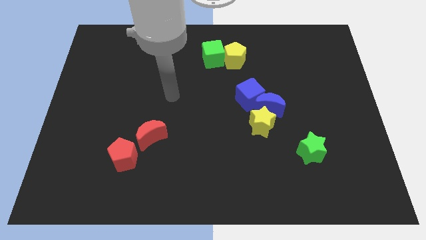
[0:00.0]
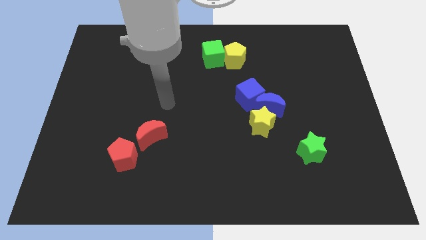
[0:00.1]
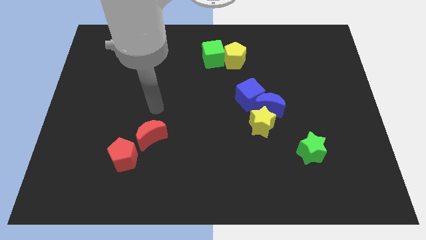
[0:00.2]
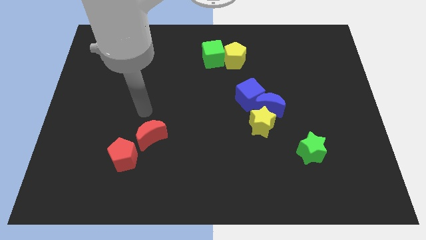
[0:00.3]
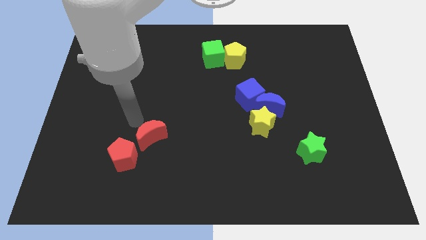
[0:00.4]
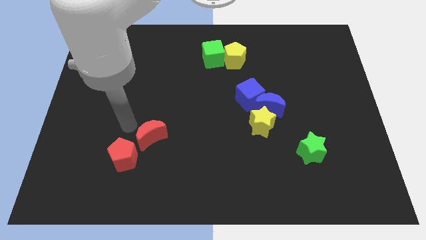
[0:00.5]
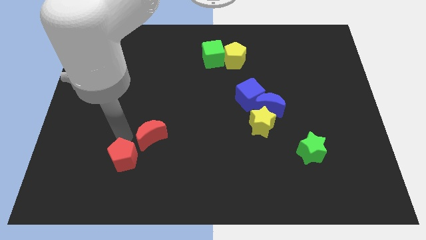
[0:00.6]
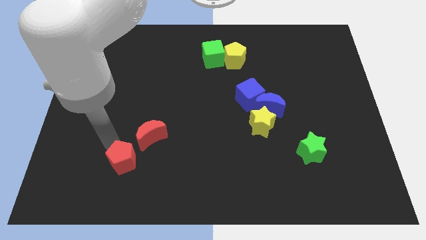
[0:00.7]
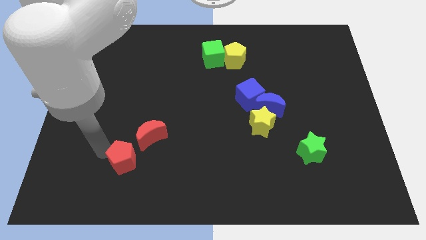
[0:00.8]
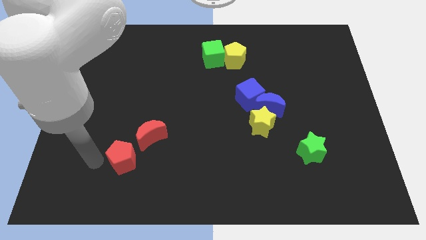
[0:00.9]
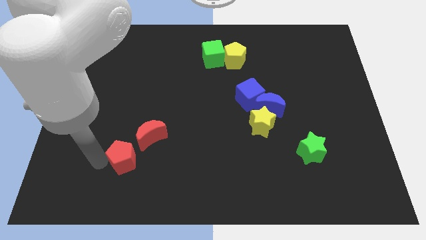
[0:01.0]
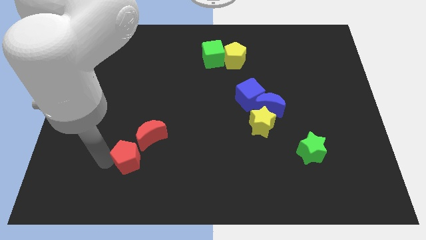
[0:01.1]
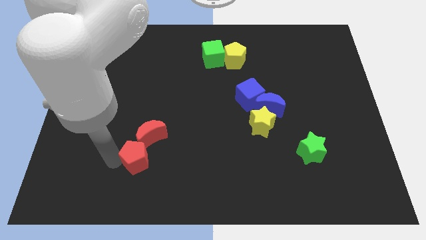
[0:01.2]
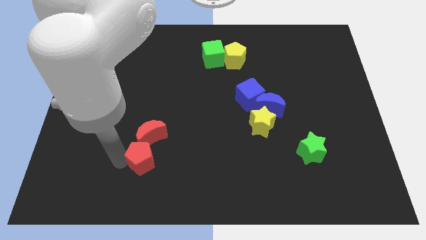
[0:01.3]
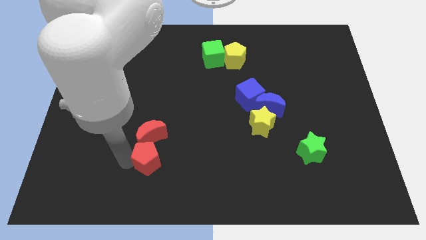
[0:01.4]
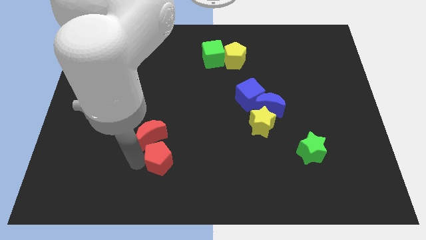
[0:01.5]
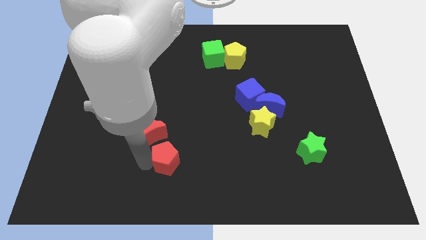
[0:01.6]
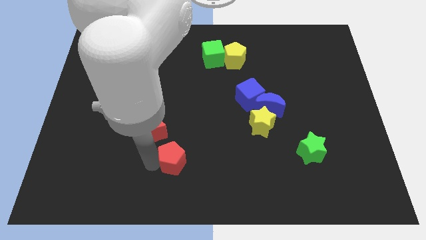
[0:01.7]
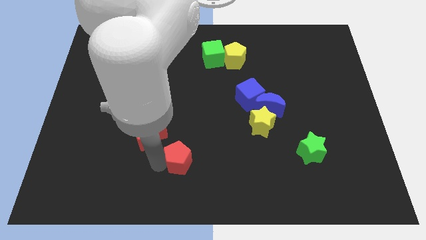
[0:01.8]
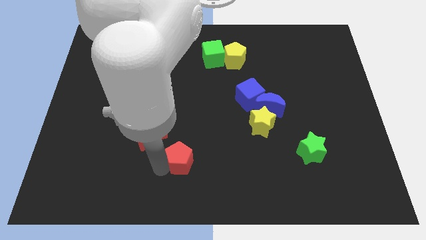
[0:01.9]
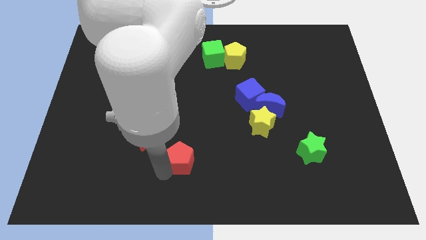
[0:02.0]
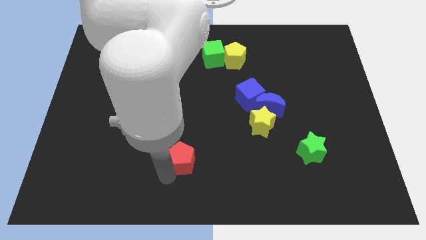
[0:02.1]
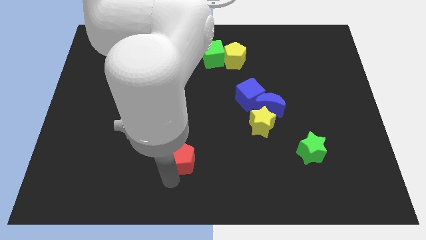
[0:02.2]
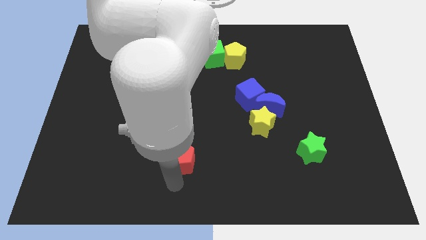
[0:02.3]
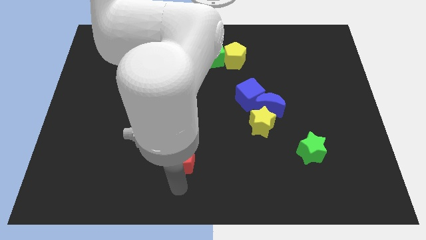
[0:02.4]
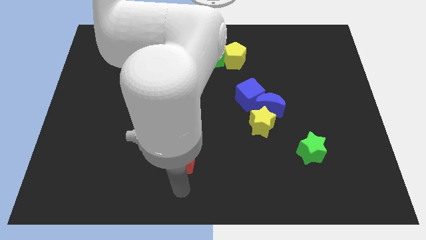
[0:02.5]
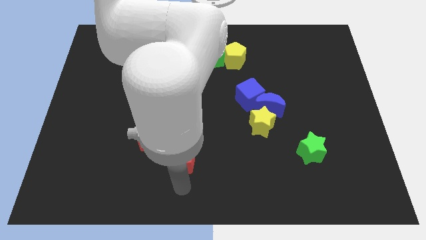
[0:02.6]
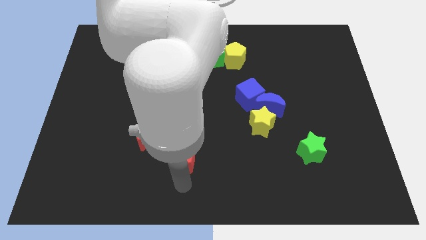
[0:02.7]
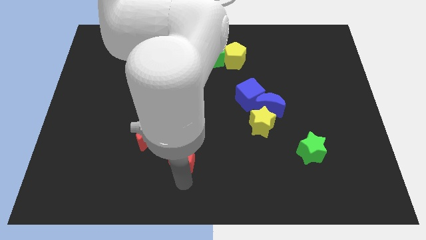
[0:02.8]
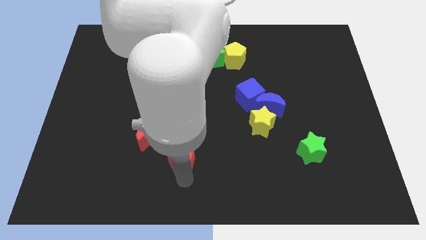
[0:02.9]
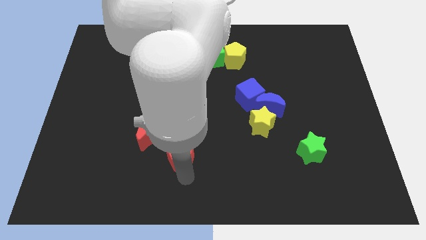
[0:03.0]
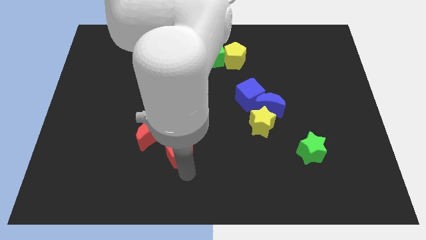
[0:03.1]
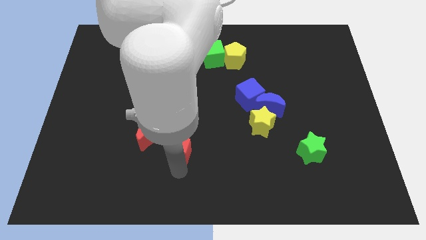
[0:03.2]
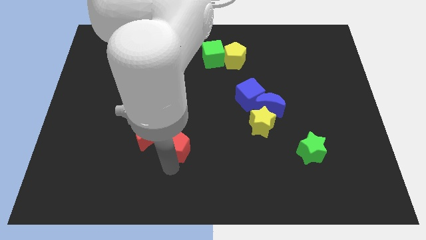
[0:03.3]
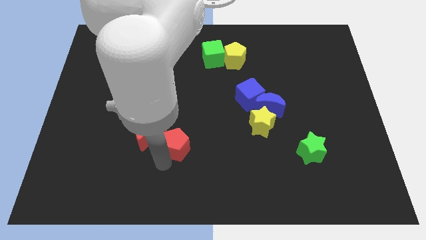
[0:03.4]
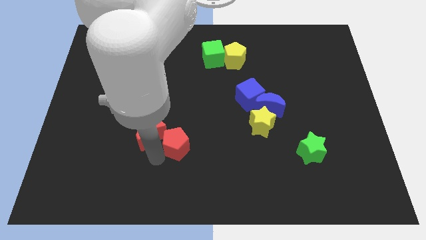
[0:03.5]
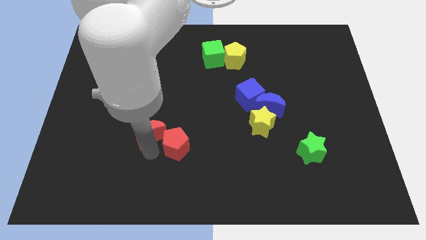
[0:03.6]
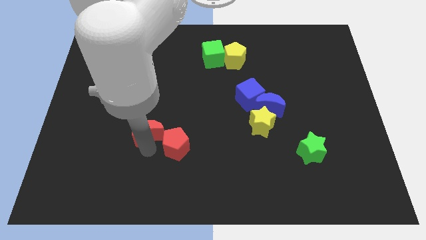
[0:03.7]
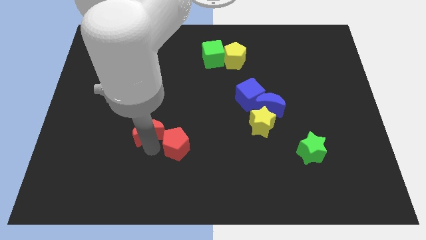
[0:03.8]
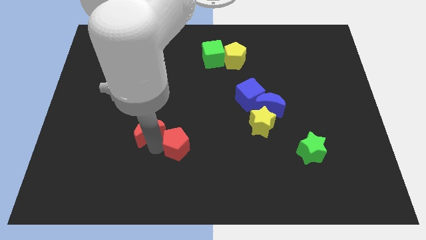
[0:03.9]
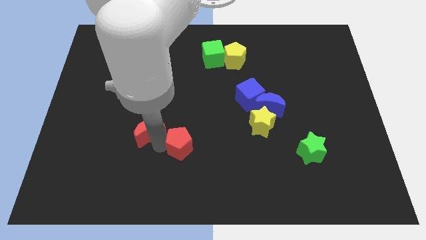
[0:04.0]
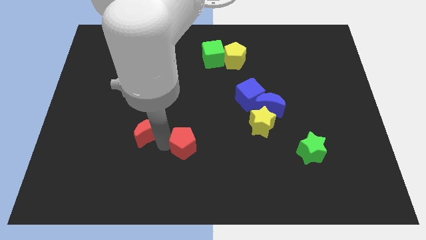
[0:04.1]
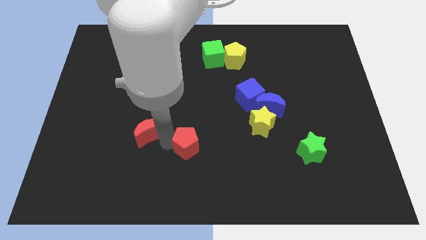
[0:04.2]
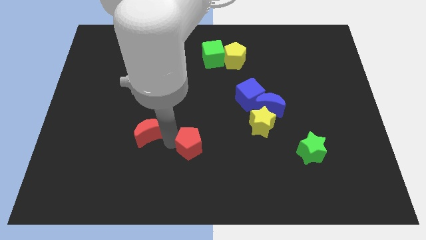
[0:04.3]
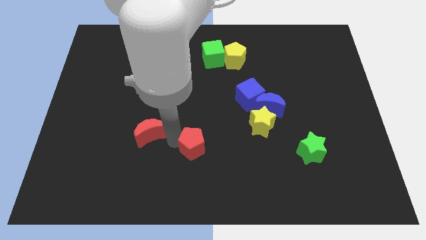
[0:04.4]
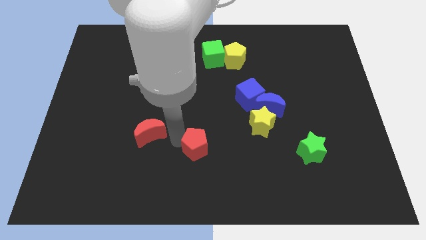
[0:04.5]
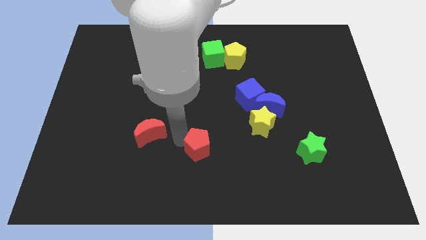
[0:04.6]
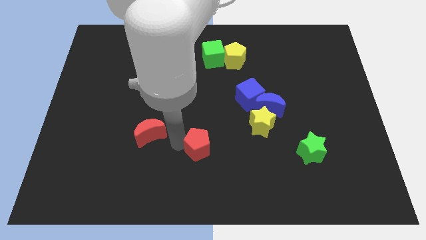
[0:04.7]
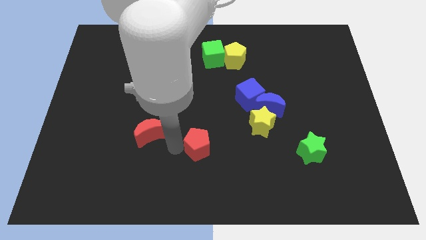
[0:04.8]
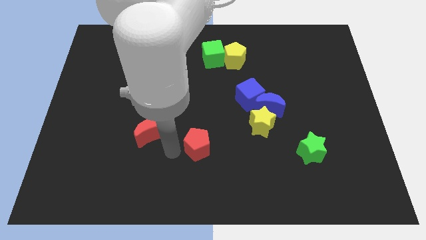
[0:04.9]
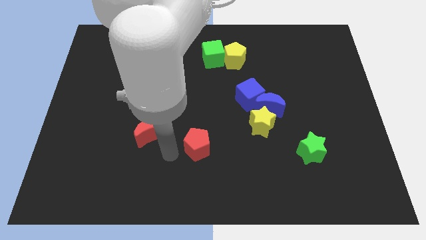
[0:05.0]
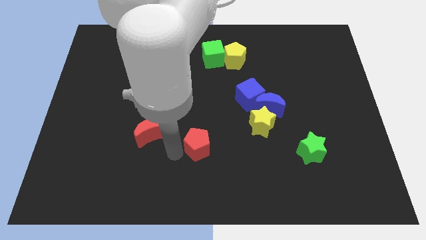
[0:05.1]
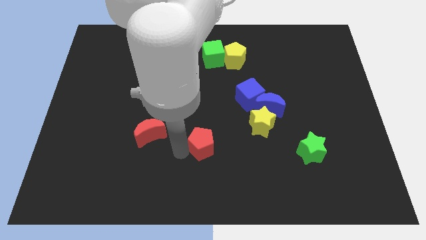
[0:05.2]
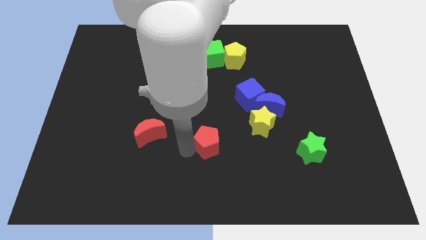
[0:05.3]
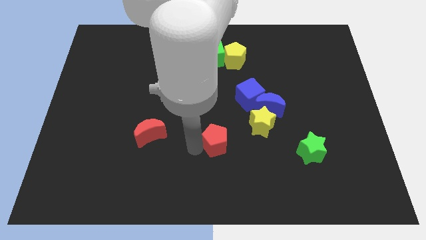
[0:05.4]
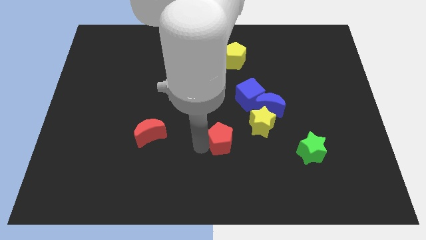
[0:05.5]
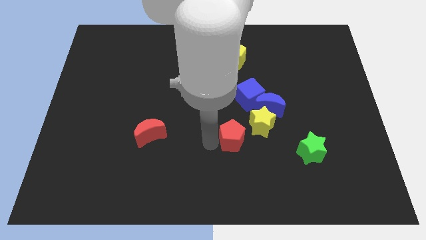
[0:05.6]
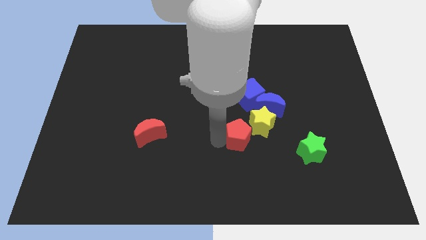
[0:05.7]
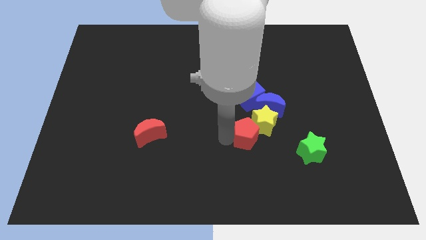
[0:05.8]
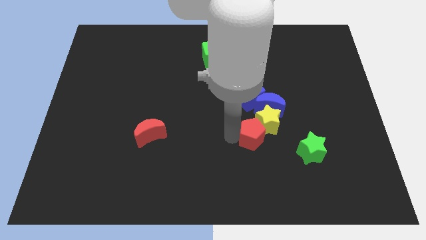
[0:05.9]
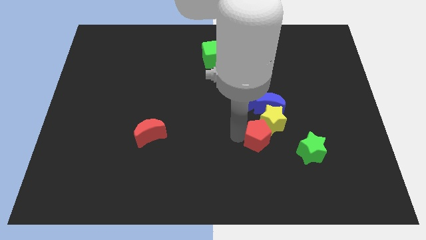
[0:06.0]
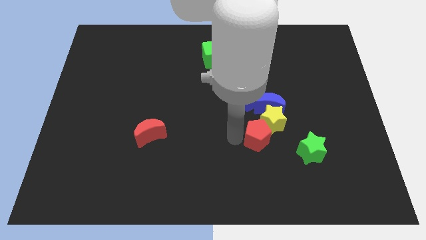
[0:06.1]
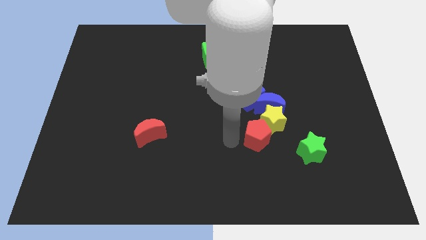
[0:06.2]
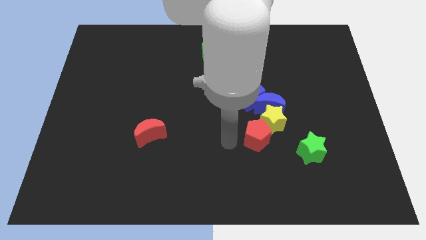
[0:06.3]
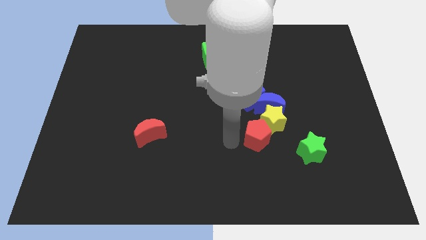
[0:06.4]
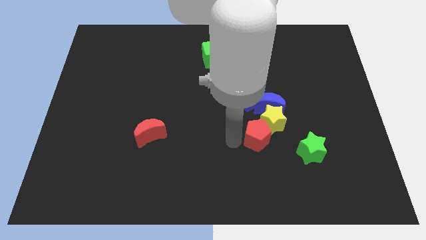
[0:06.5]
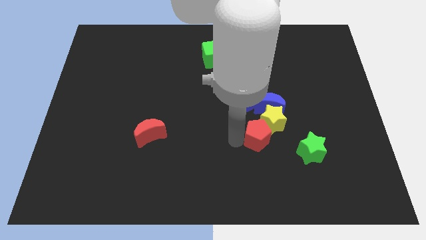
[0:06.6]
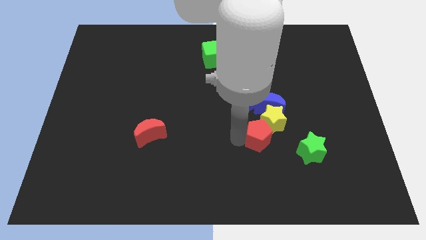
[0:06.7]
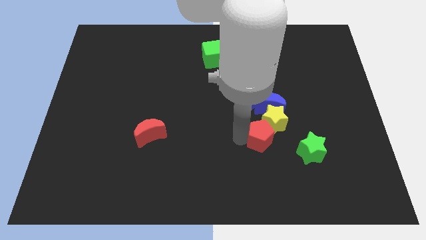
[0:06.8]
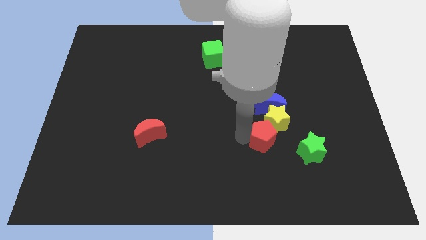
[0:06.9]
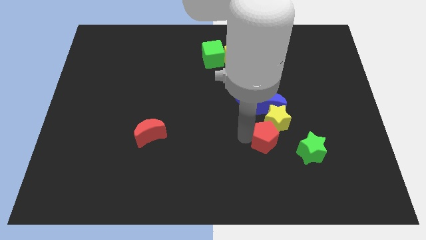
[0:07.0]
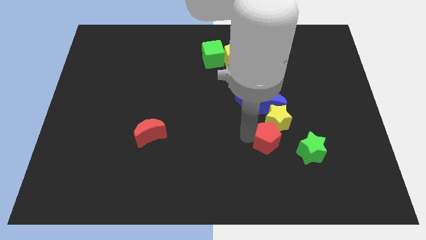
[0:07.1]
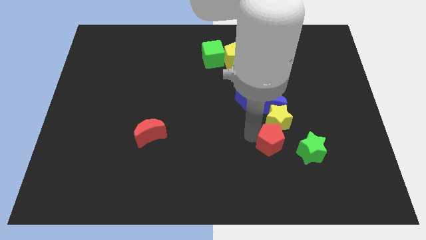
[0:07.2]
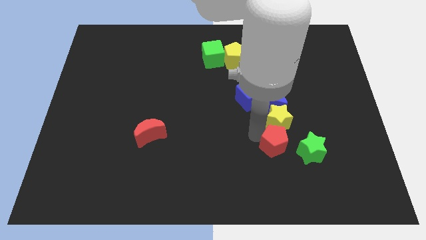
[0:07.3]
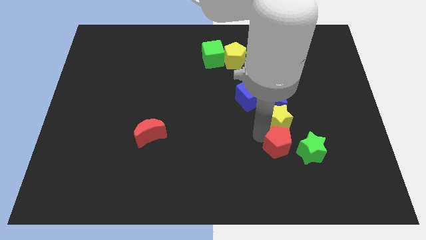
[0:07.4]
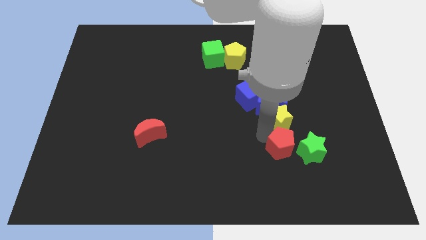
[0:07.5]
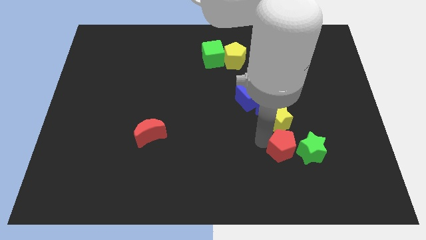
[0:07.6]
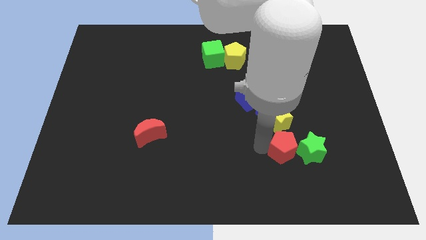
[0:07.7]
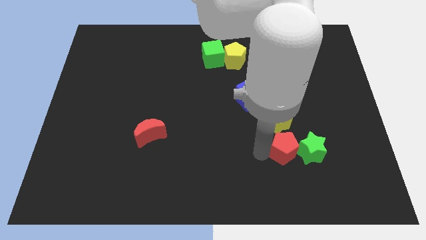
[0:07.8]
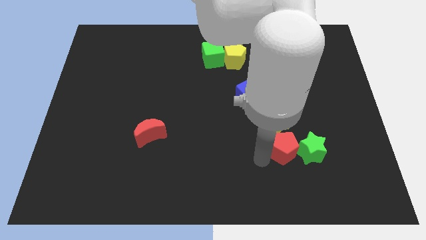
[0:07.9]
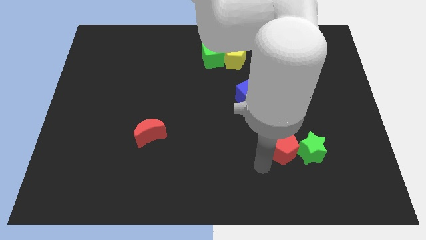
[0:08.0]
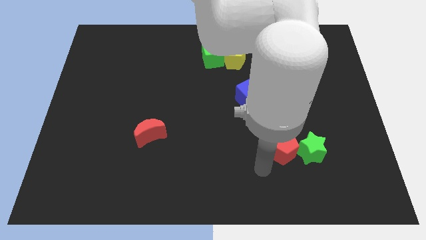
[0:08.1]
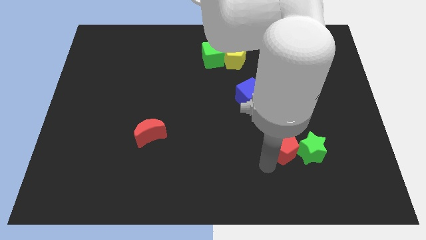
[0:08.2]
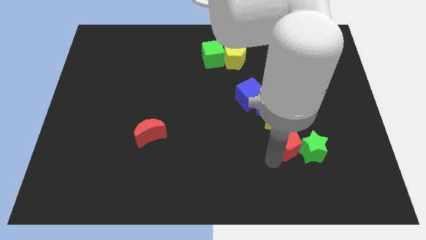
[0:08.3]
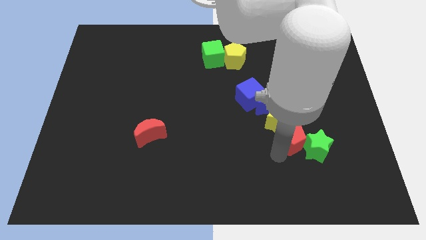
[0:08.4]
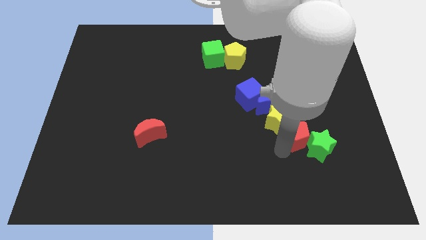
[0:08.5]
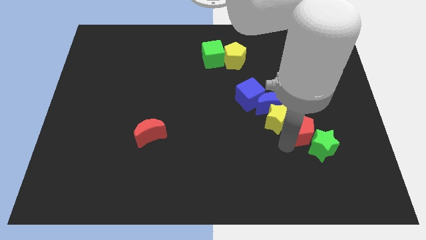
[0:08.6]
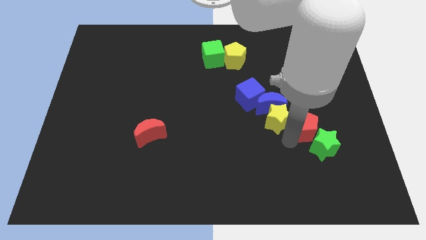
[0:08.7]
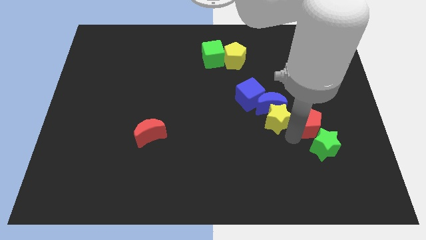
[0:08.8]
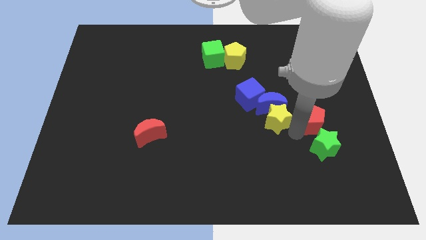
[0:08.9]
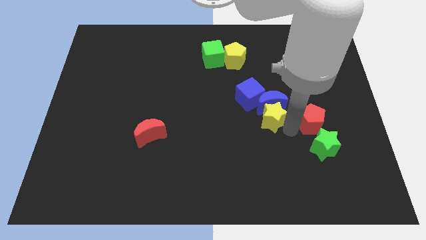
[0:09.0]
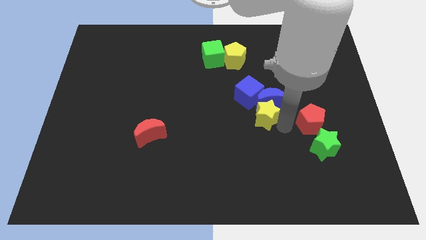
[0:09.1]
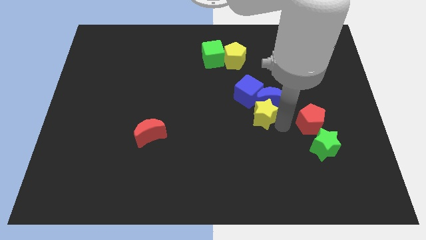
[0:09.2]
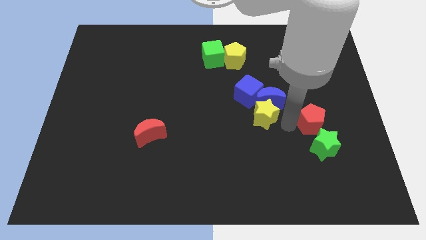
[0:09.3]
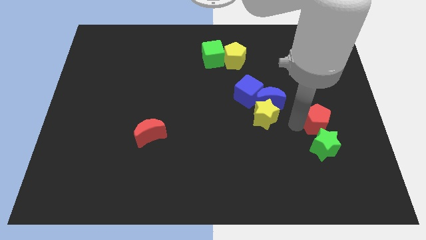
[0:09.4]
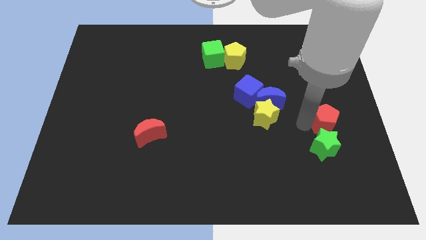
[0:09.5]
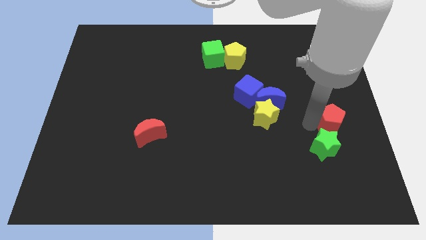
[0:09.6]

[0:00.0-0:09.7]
move the red pentagon to the center right
